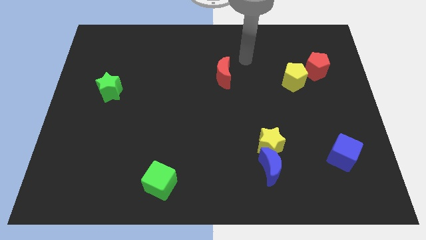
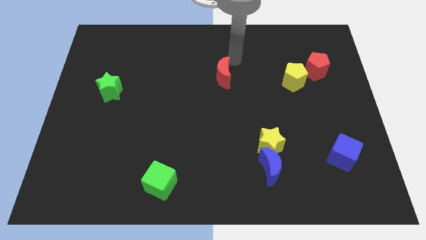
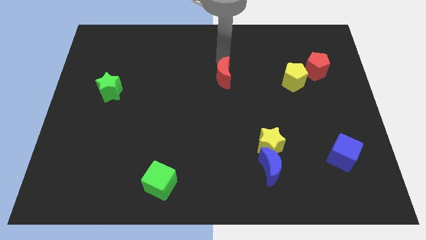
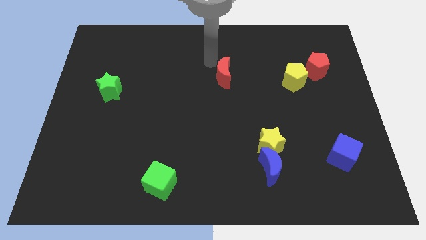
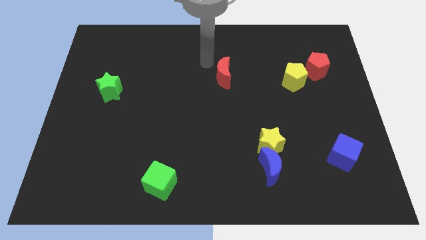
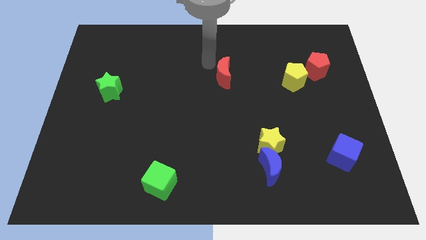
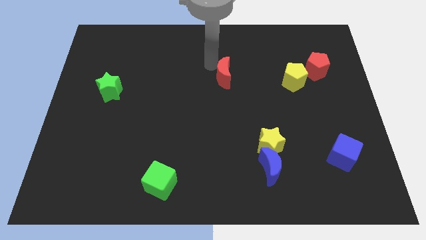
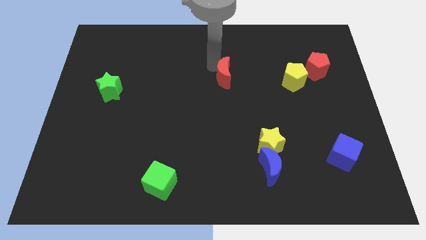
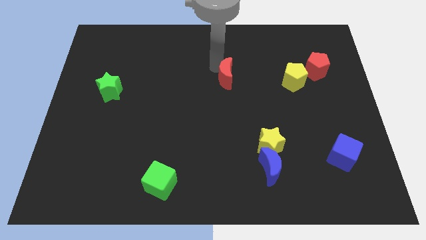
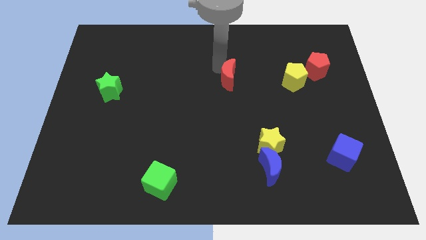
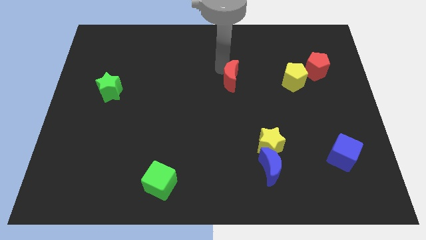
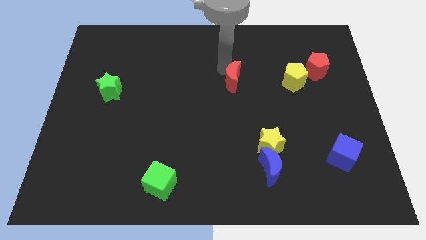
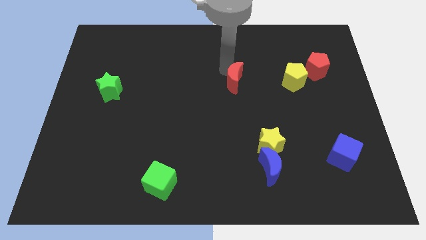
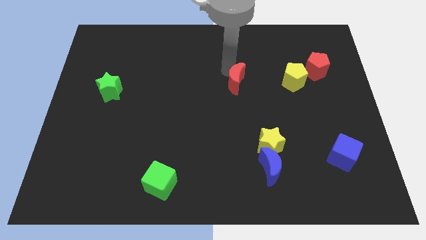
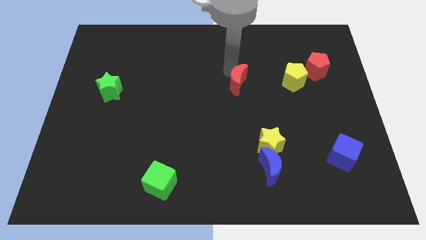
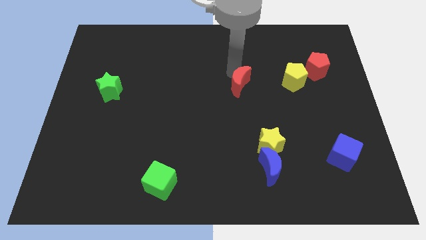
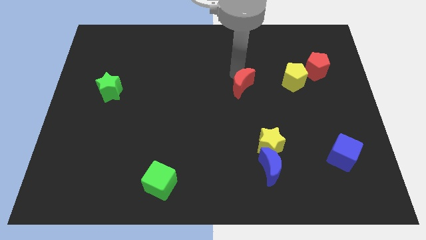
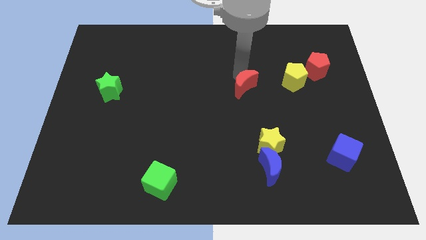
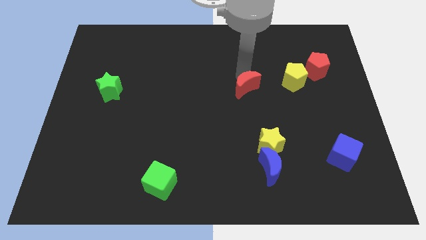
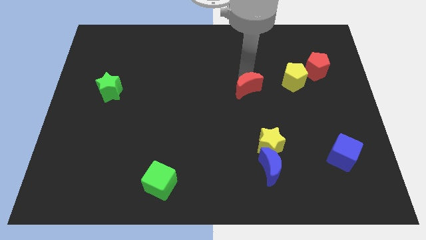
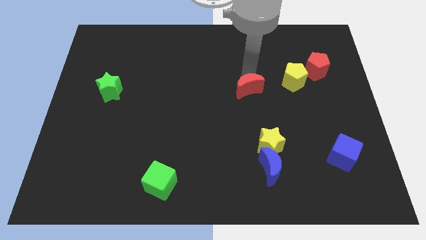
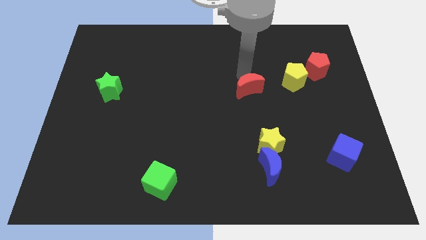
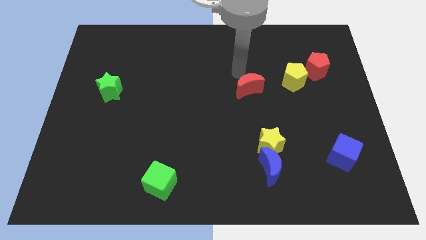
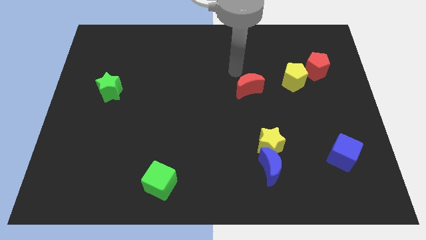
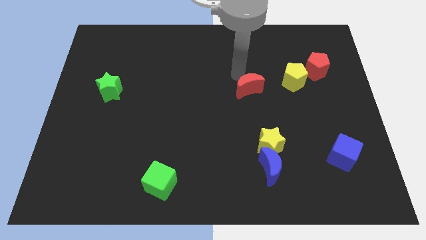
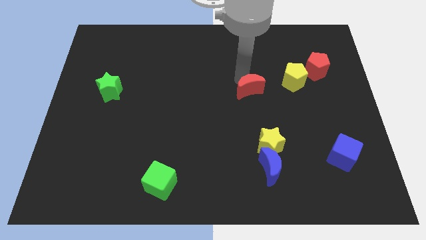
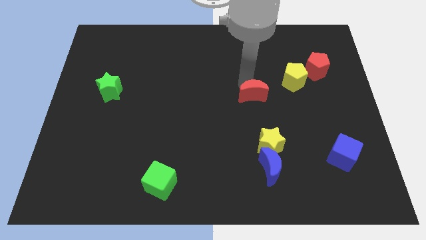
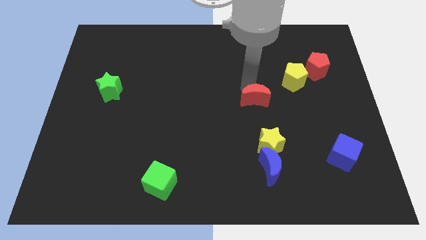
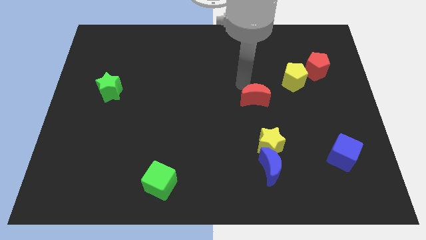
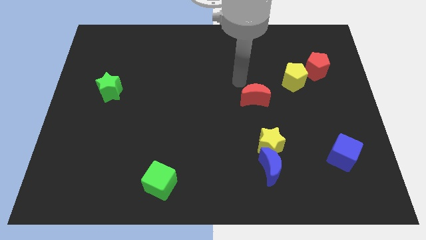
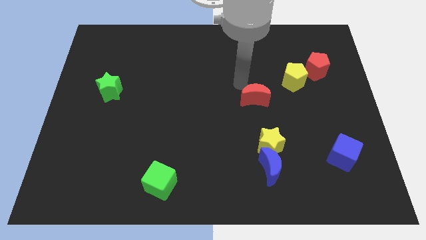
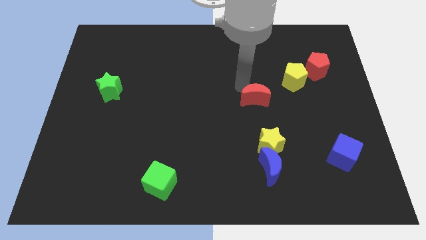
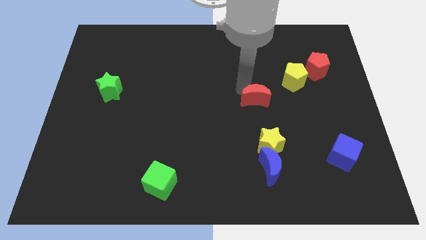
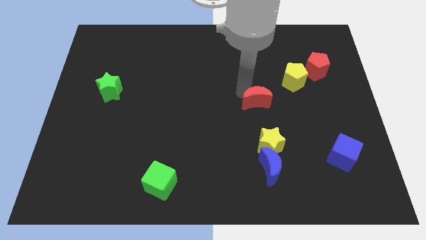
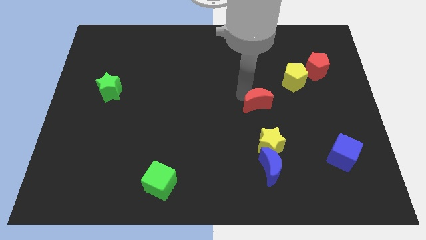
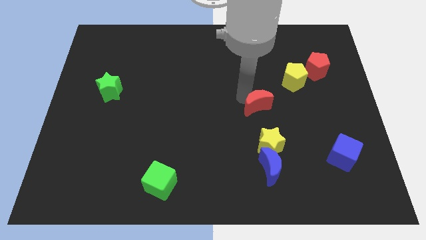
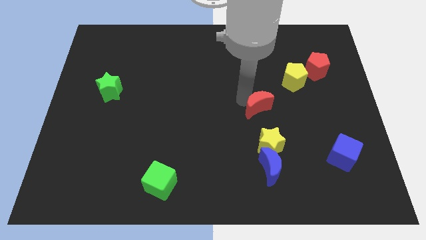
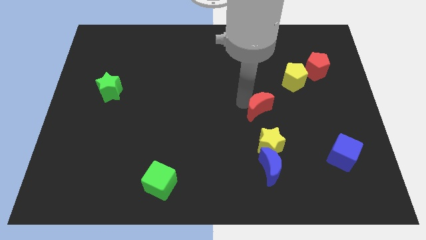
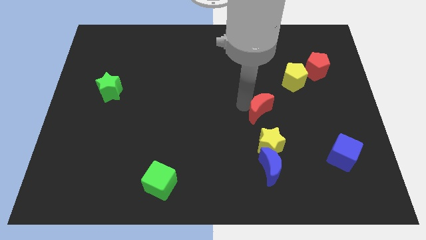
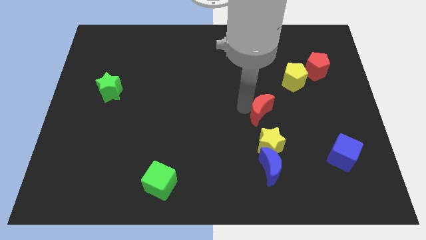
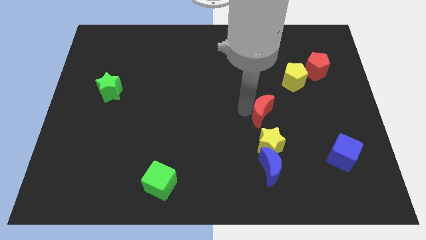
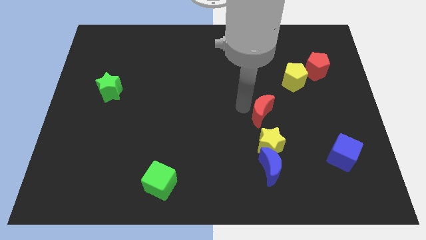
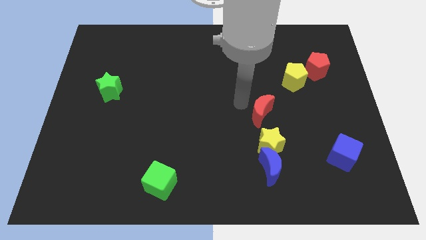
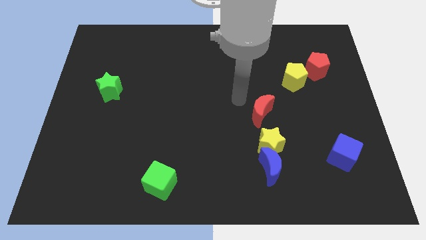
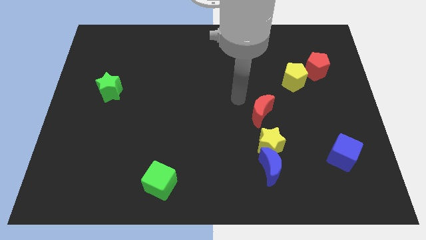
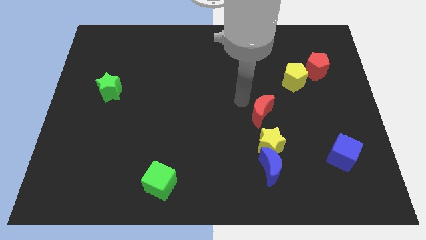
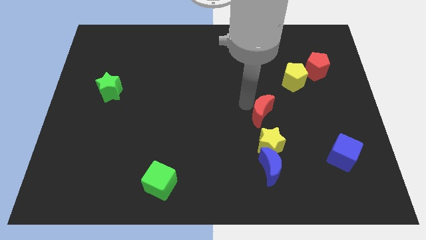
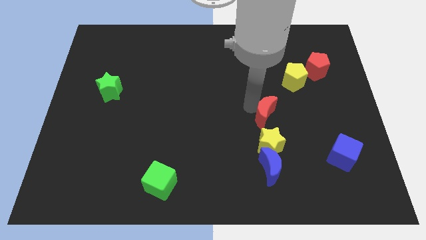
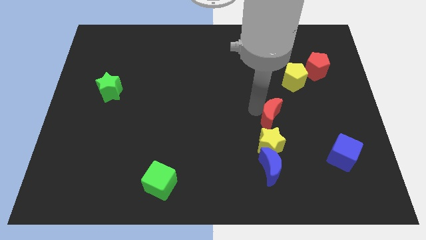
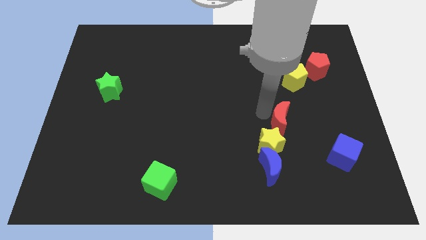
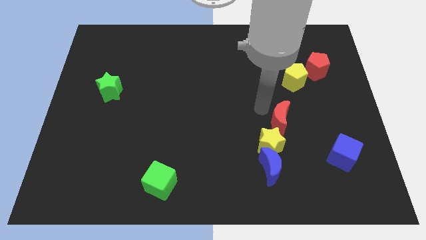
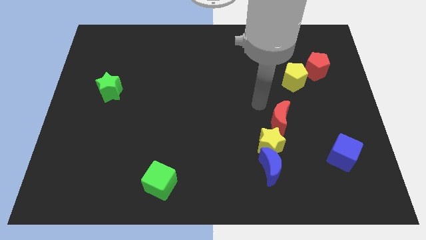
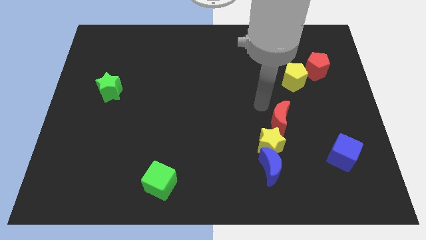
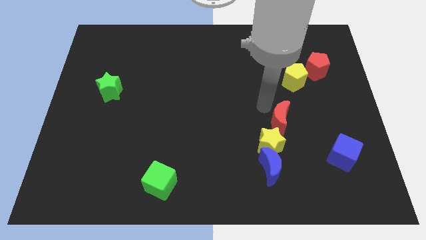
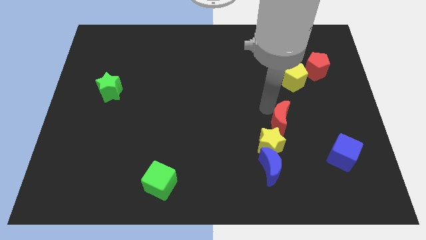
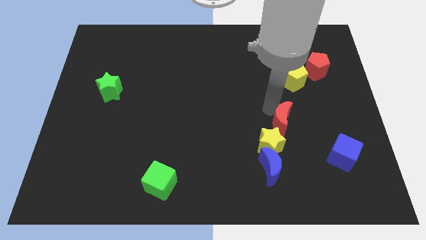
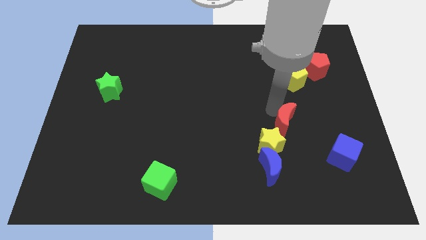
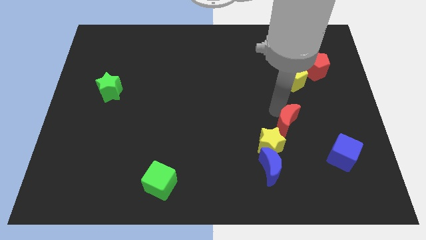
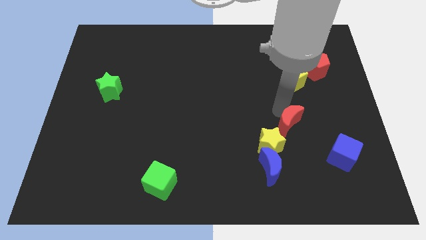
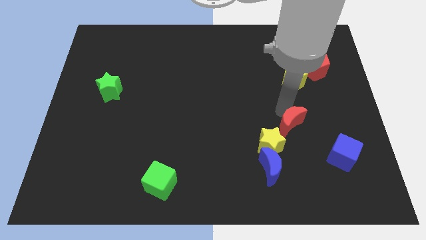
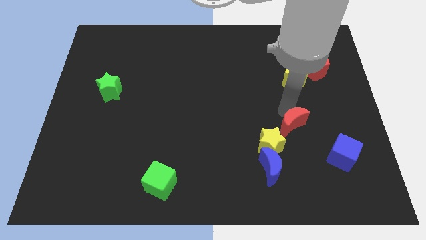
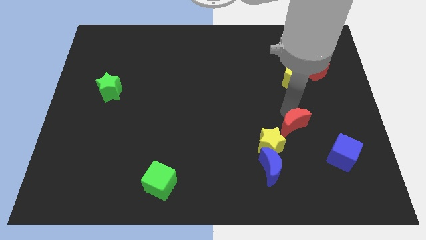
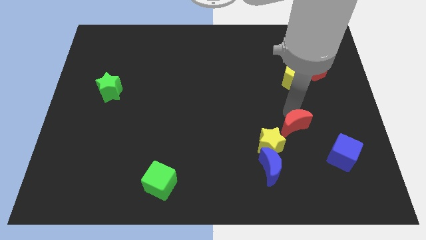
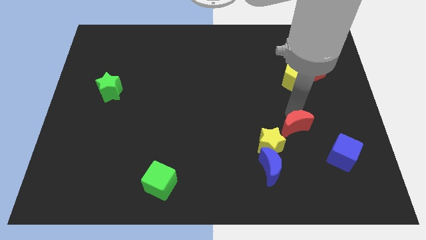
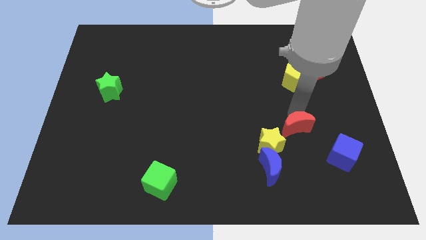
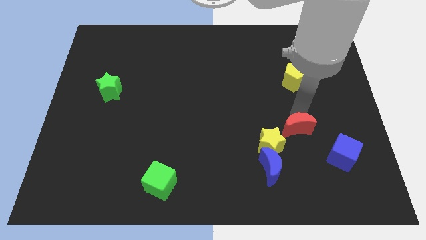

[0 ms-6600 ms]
move the red moon right of the yellow star

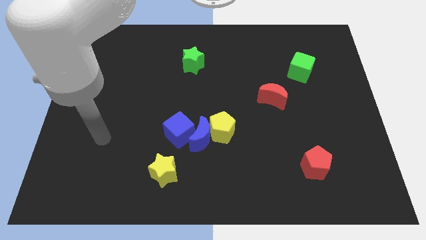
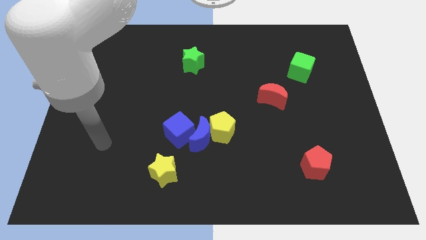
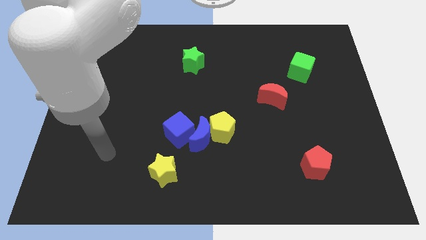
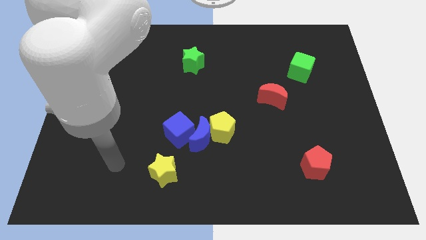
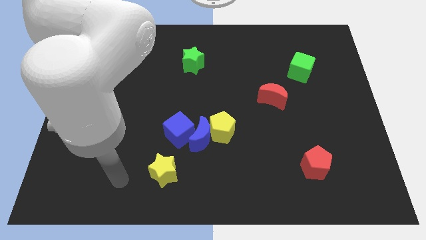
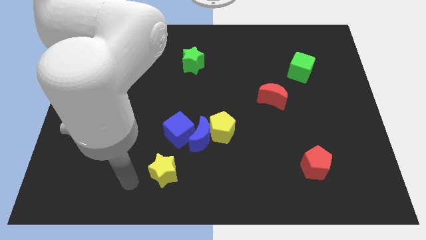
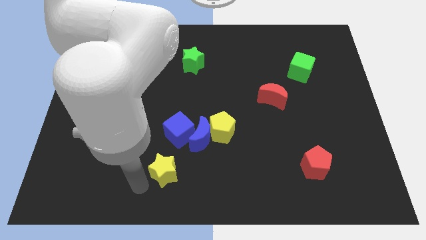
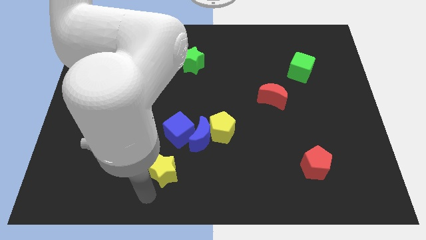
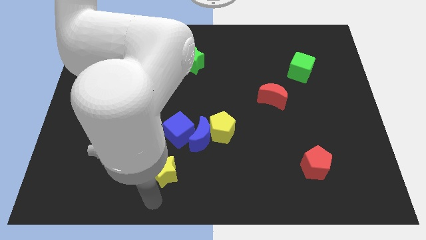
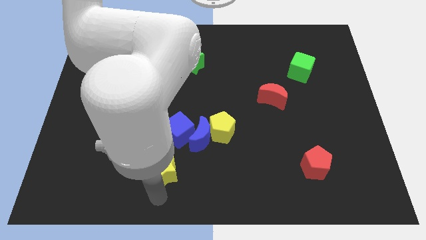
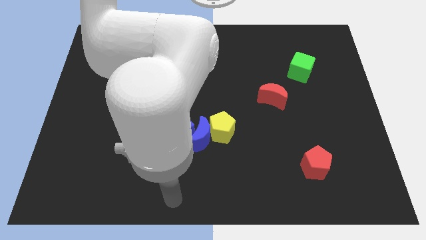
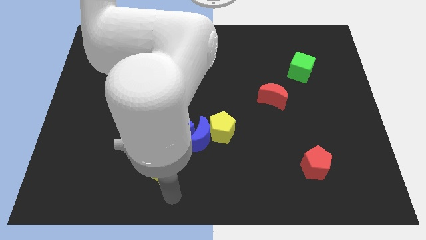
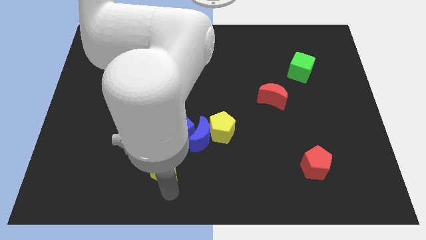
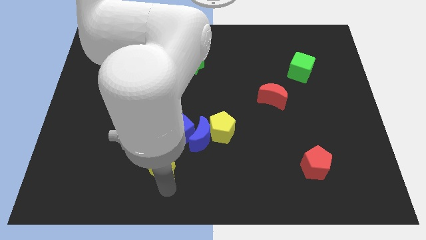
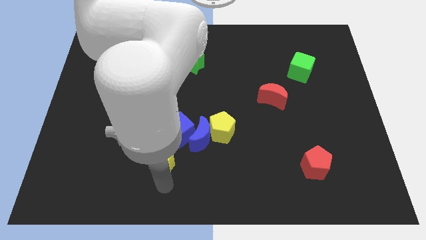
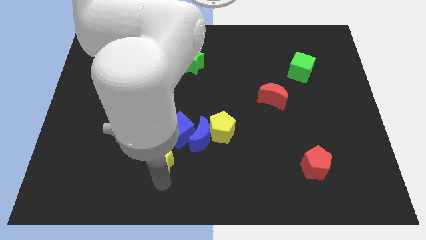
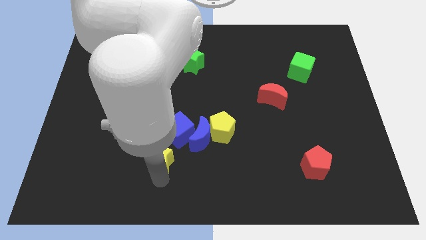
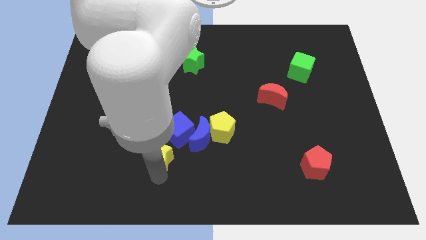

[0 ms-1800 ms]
slide the yellow star to the left side of the blue moon
